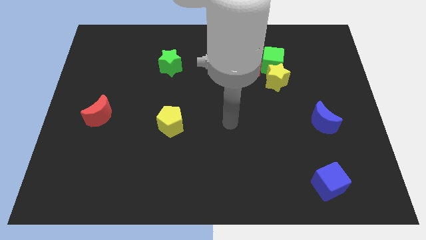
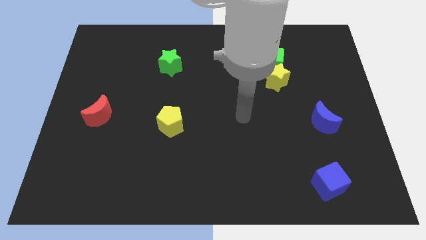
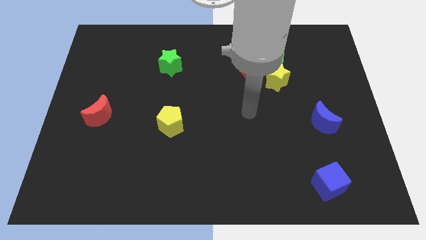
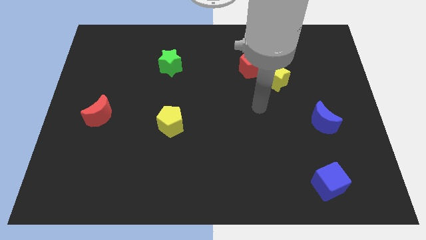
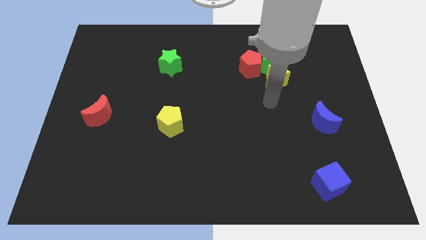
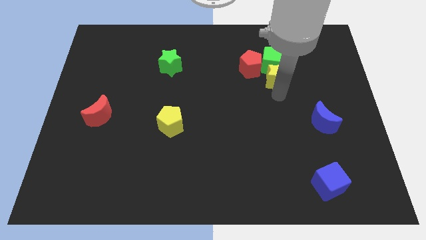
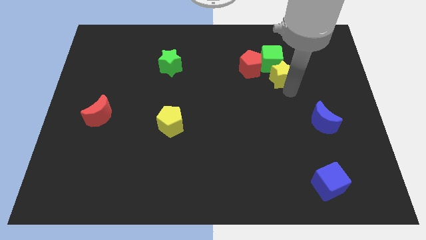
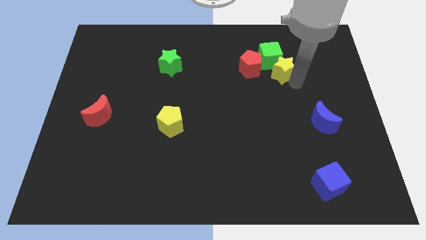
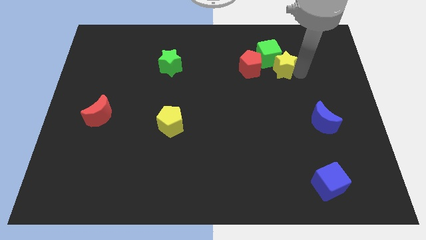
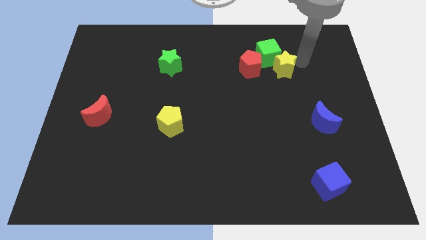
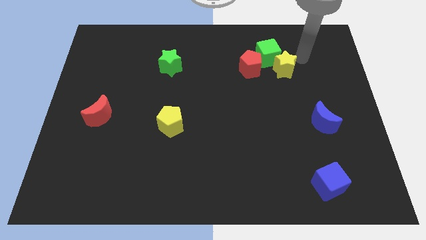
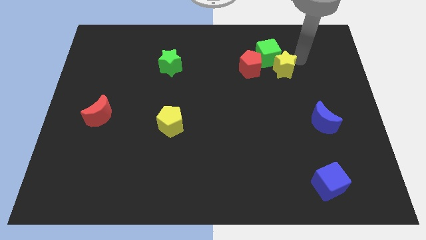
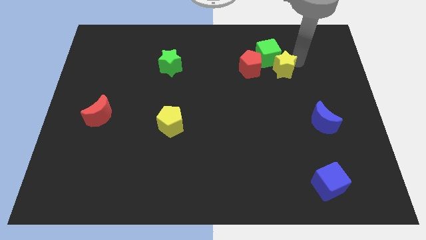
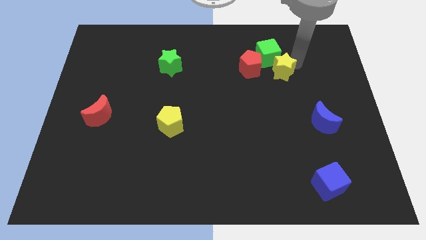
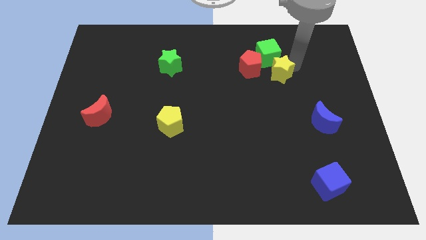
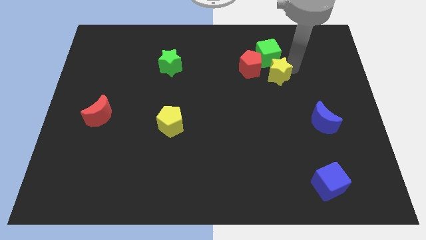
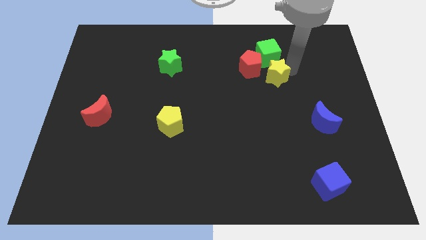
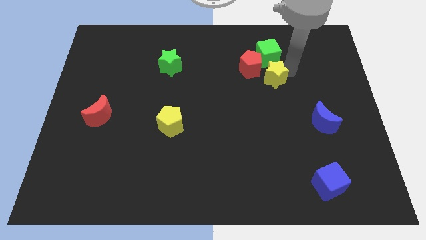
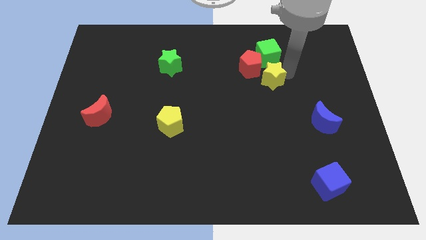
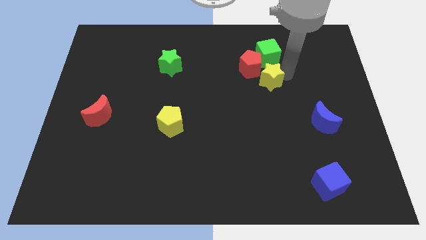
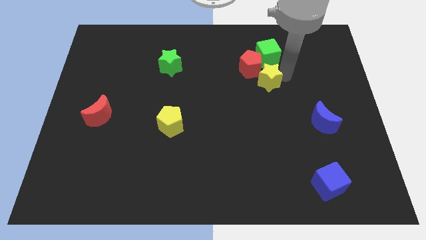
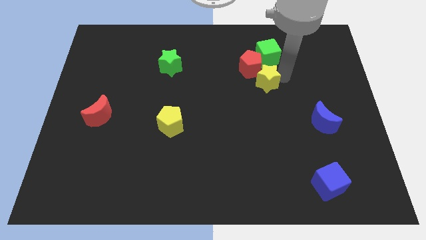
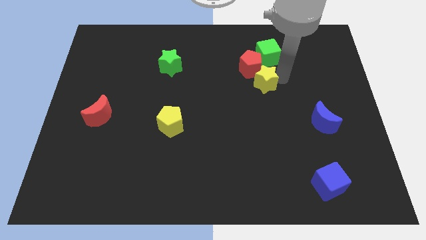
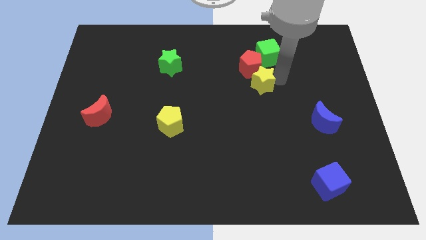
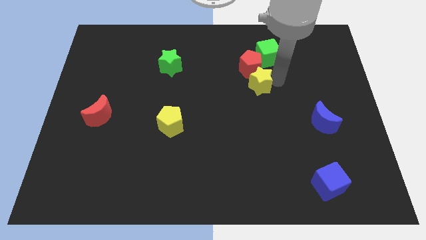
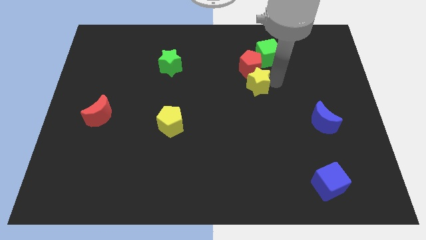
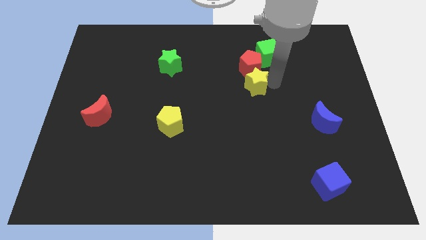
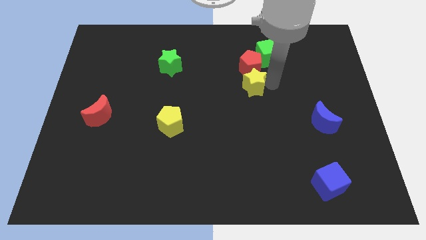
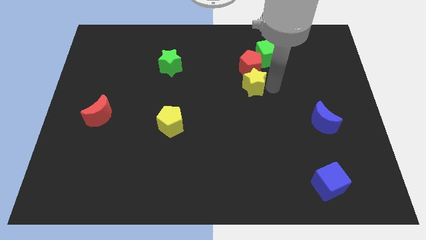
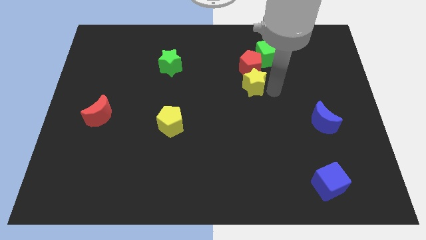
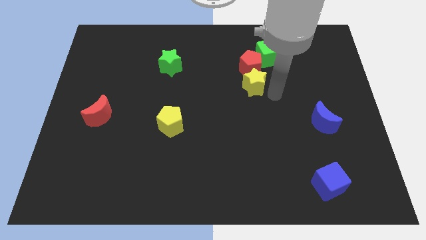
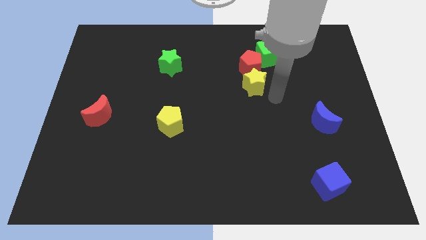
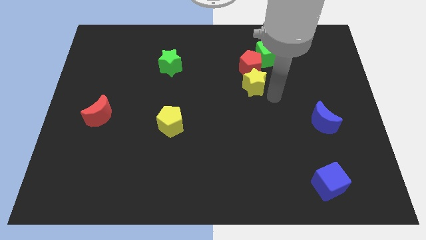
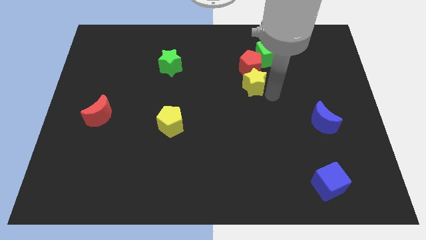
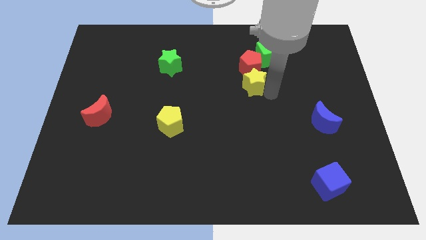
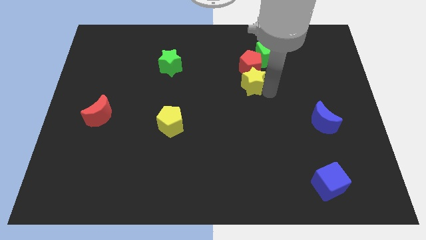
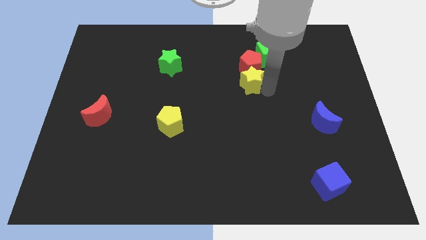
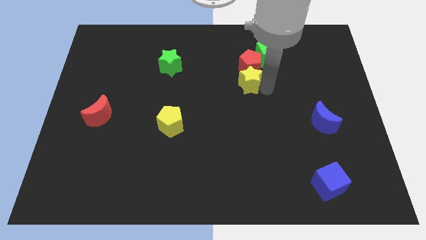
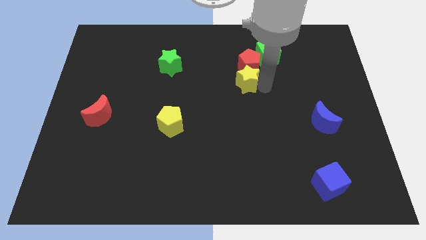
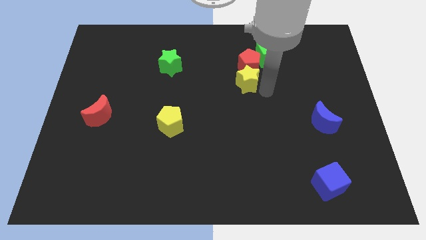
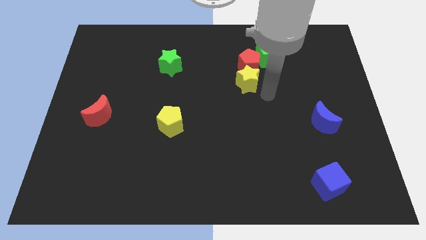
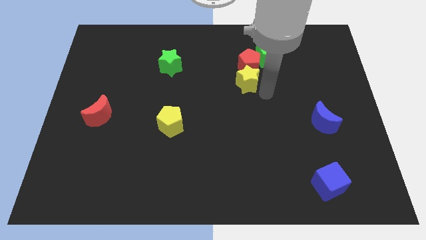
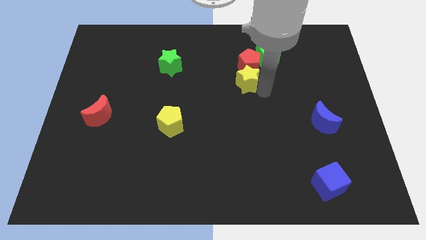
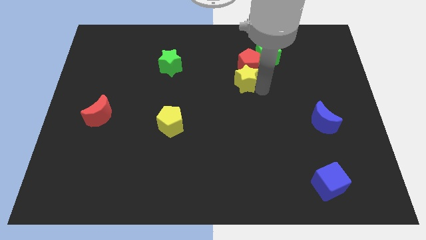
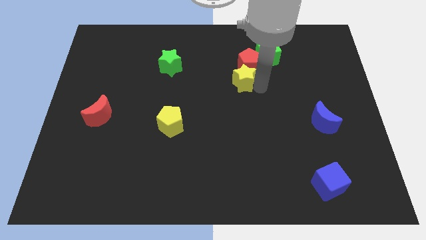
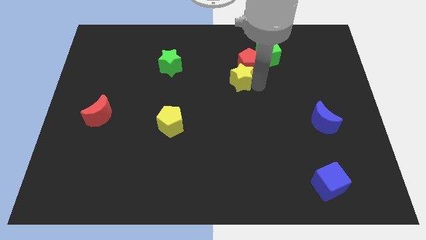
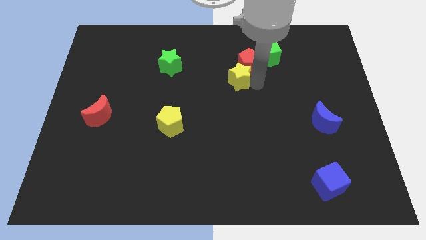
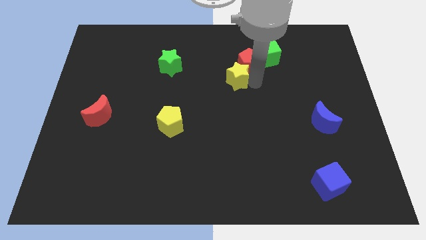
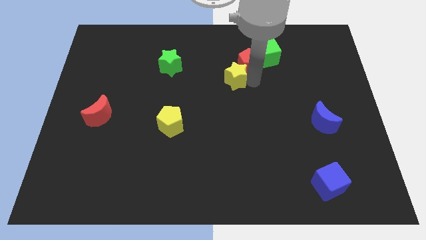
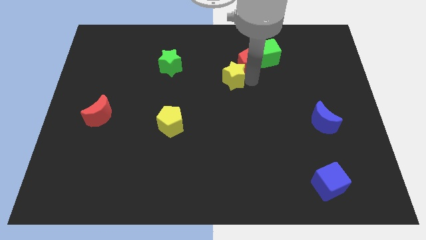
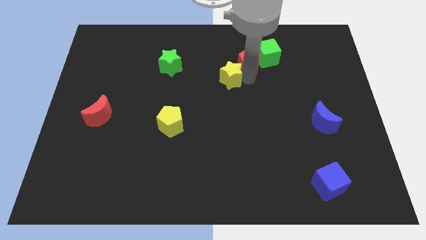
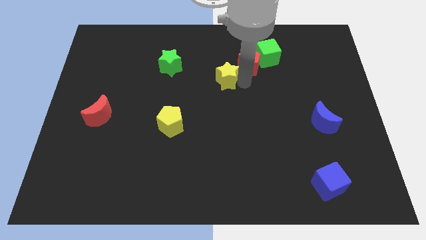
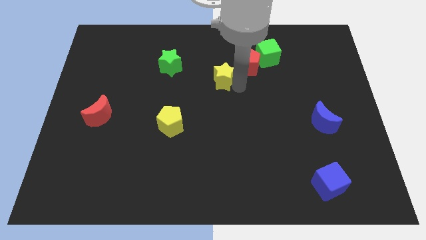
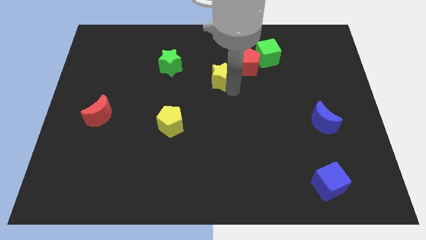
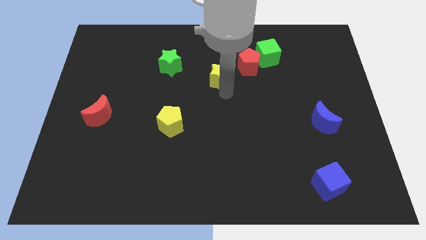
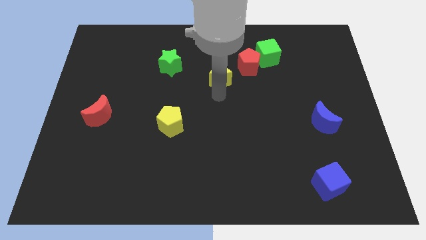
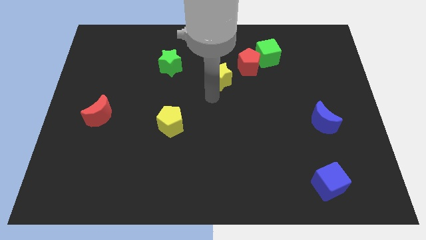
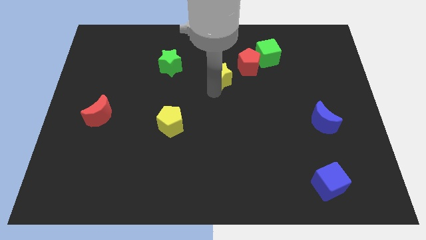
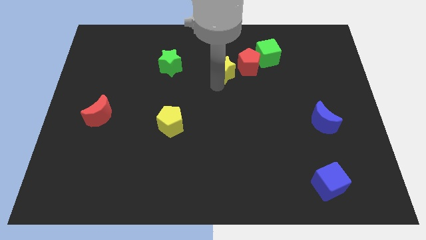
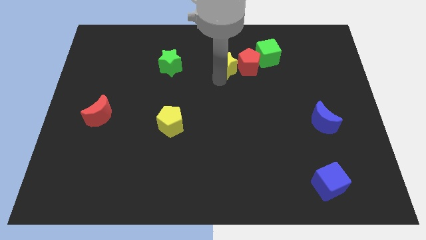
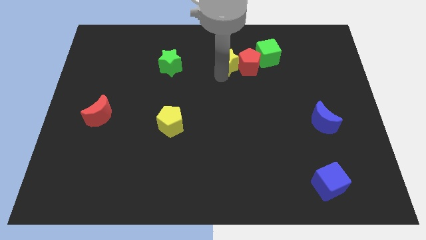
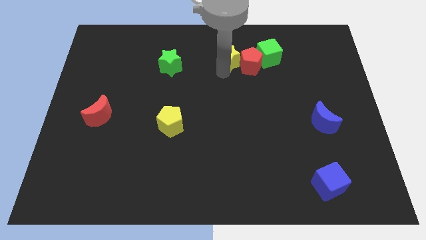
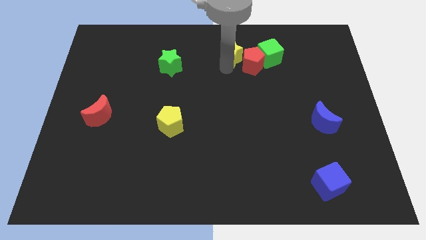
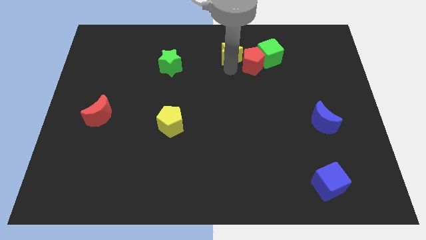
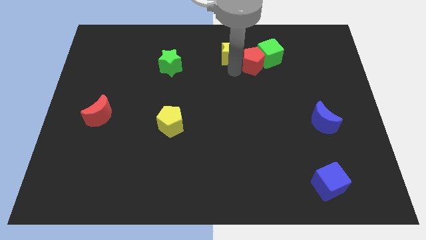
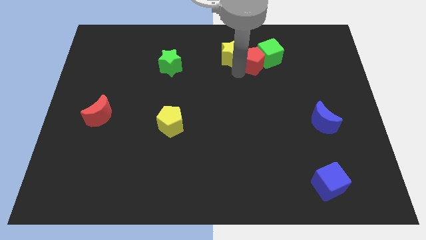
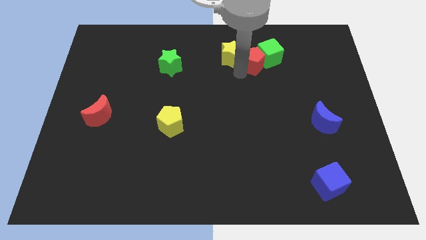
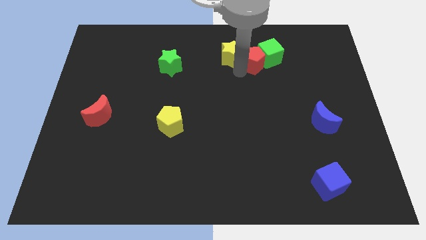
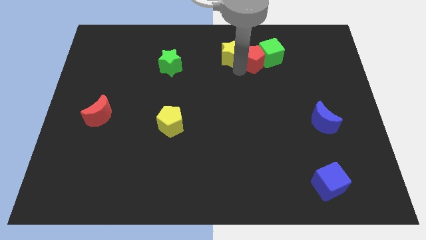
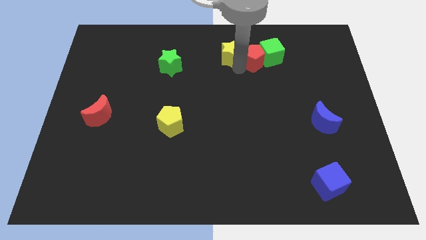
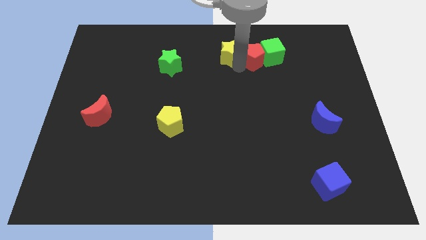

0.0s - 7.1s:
slide the yellow star to the towards your base
